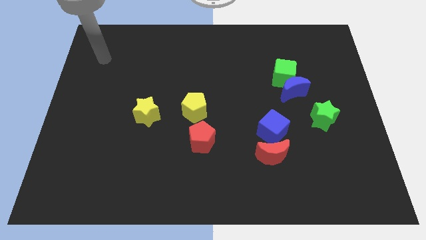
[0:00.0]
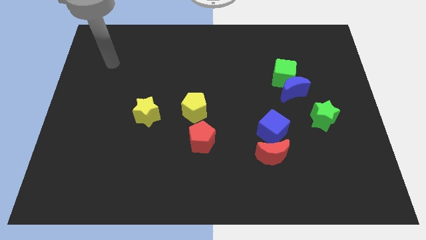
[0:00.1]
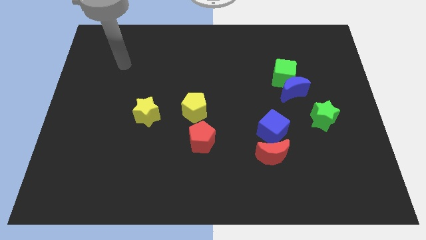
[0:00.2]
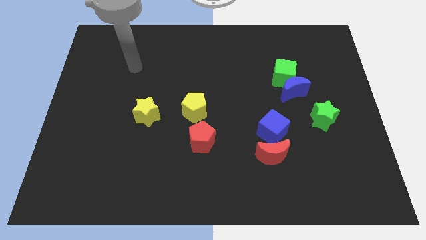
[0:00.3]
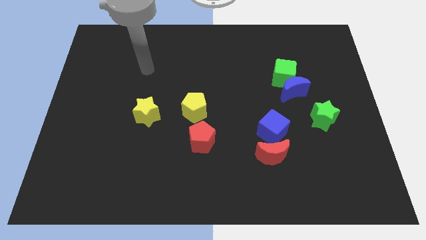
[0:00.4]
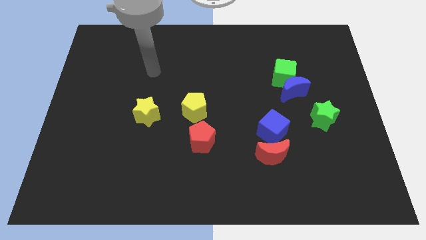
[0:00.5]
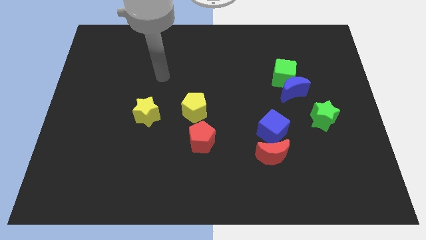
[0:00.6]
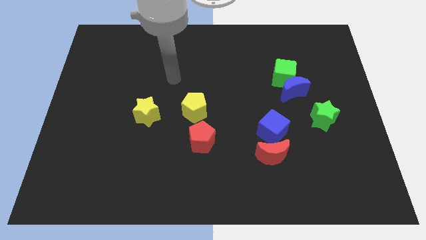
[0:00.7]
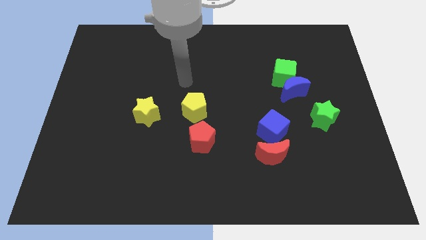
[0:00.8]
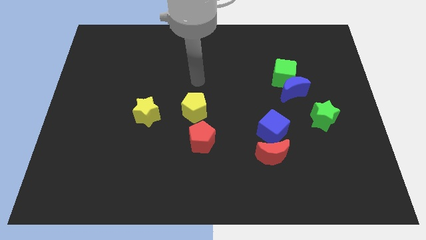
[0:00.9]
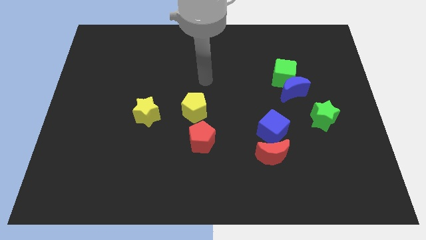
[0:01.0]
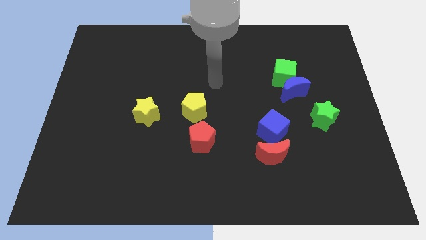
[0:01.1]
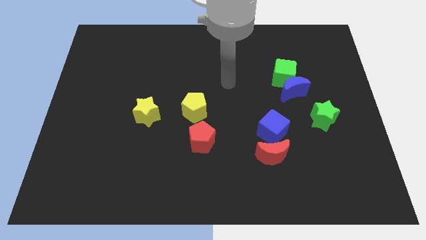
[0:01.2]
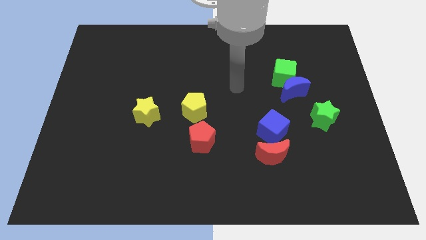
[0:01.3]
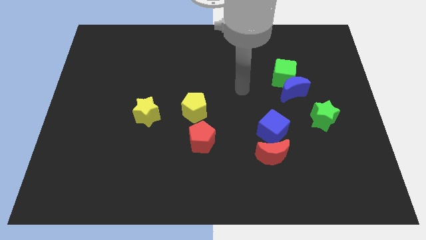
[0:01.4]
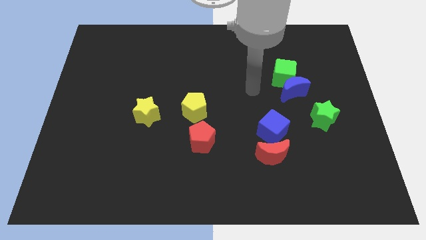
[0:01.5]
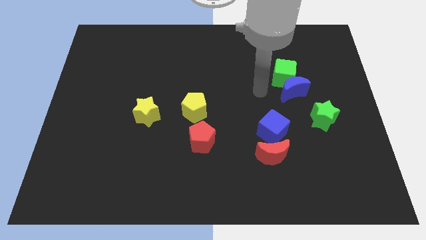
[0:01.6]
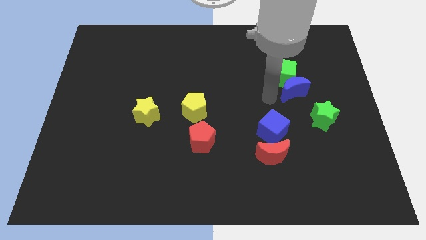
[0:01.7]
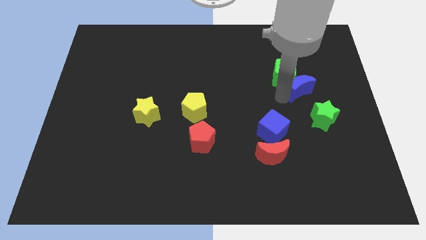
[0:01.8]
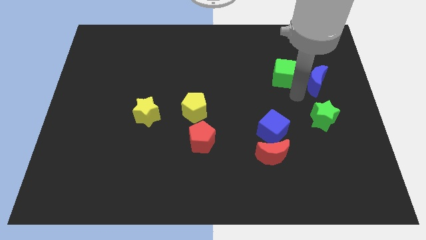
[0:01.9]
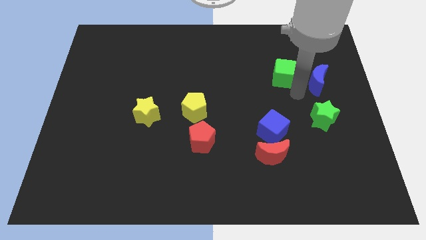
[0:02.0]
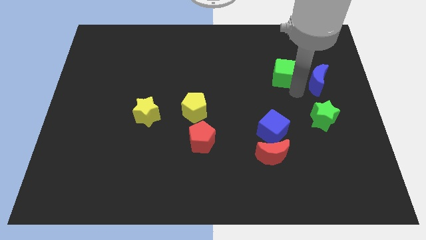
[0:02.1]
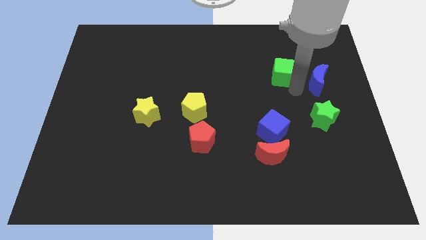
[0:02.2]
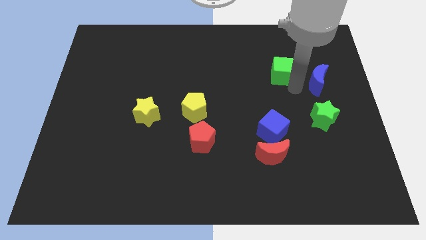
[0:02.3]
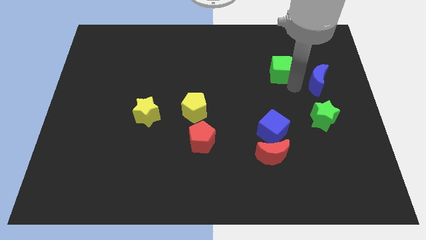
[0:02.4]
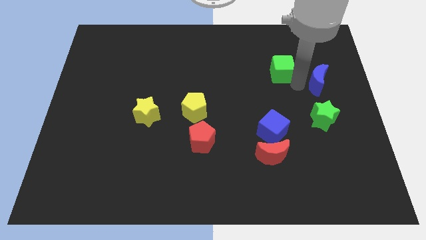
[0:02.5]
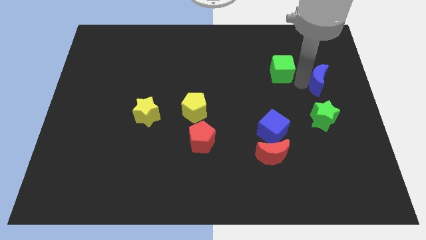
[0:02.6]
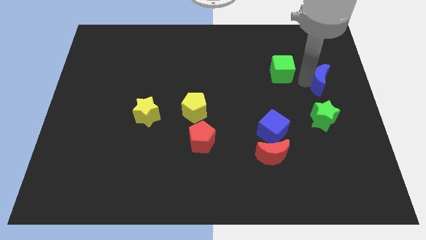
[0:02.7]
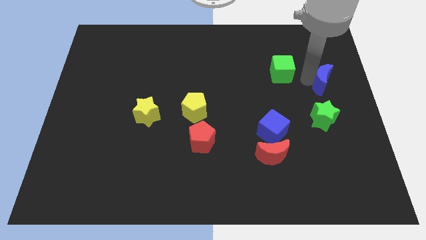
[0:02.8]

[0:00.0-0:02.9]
pull the green cube apart from the blue moon

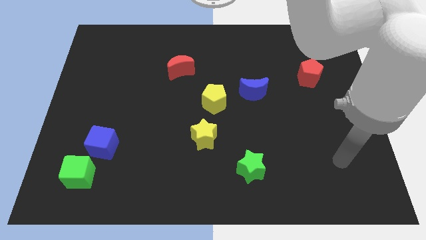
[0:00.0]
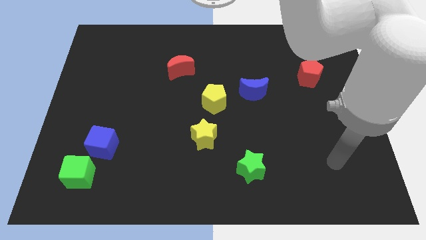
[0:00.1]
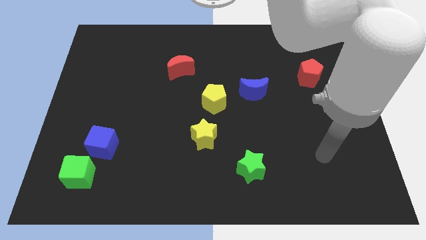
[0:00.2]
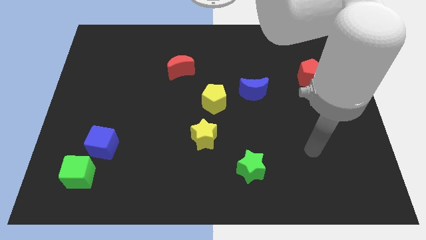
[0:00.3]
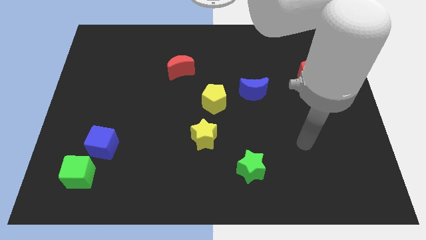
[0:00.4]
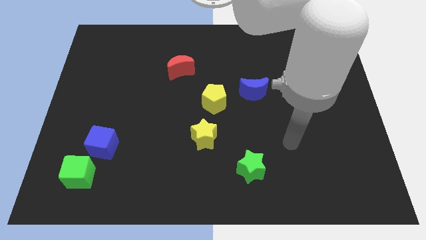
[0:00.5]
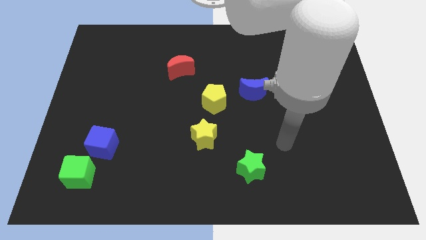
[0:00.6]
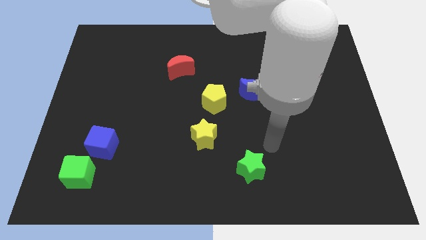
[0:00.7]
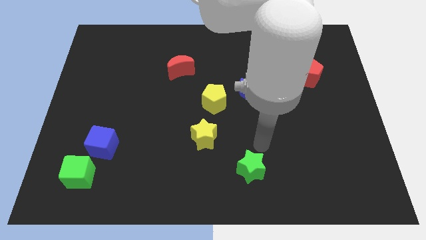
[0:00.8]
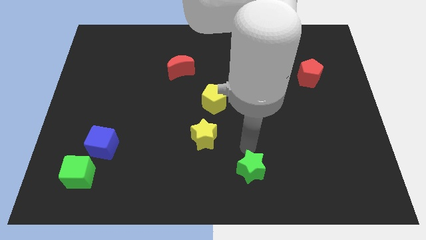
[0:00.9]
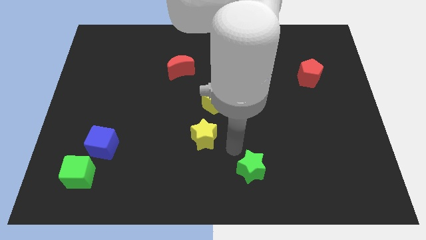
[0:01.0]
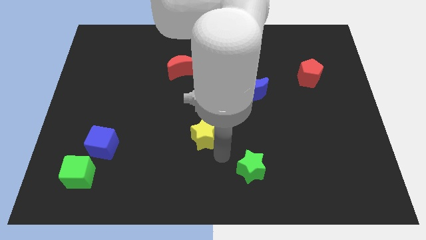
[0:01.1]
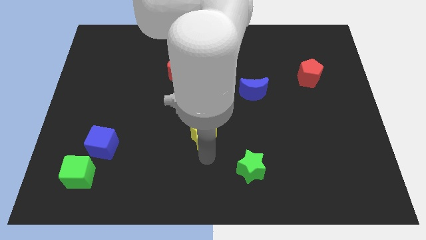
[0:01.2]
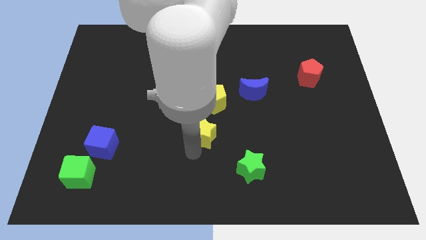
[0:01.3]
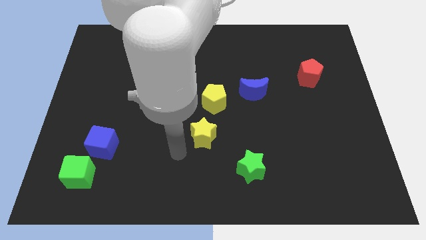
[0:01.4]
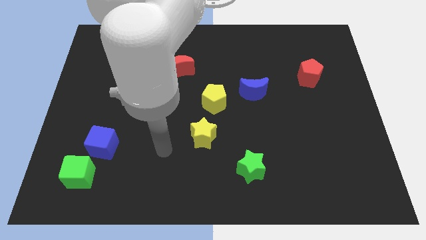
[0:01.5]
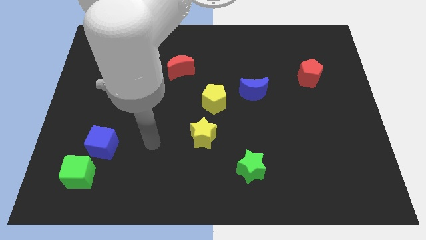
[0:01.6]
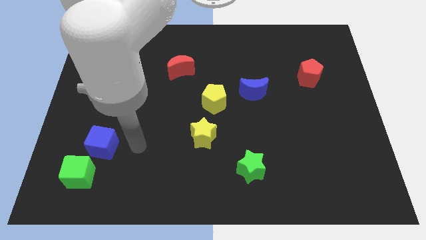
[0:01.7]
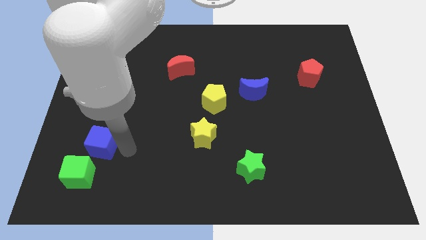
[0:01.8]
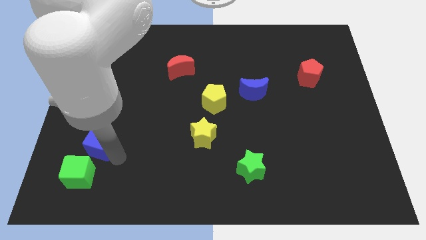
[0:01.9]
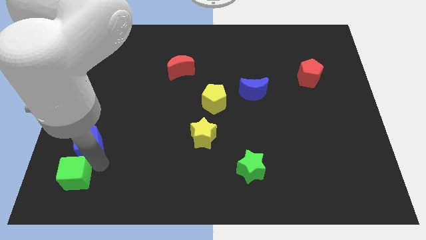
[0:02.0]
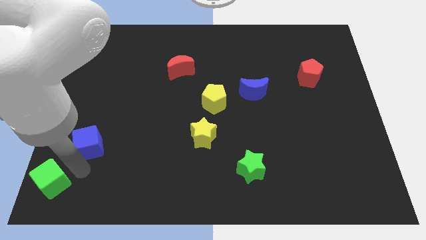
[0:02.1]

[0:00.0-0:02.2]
move the blue cube away from the green cube

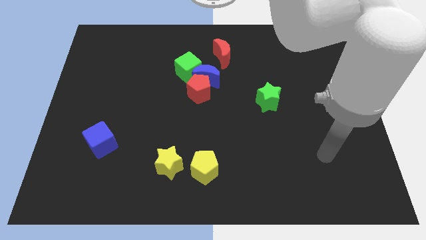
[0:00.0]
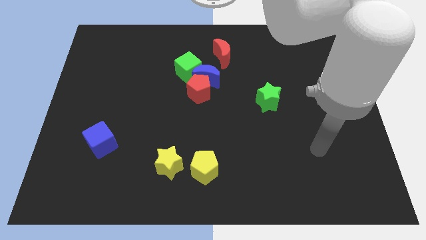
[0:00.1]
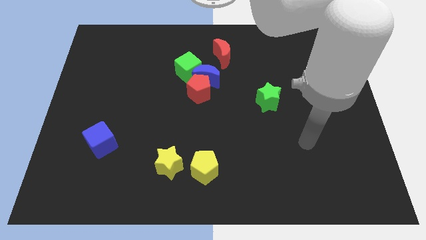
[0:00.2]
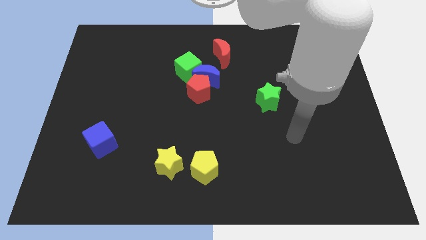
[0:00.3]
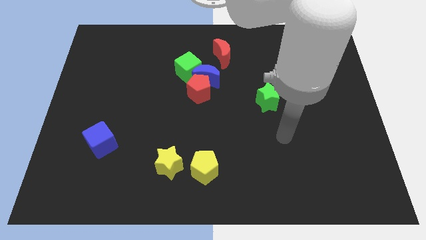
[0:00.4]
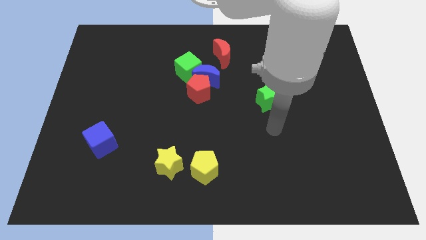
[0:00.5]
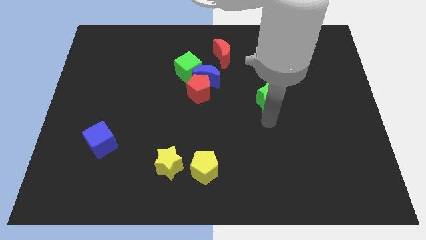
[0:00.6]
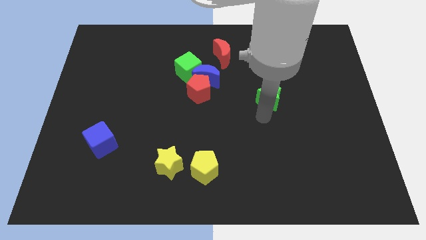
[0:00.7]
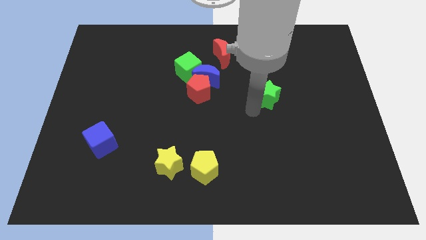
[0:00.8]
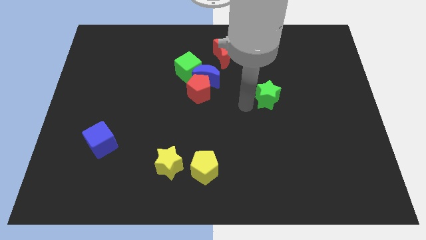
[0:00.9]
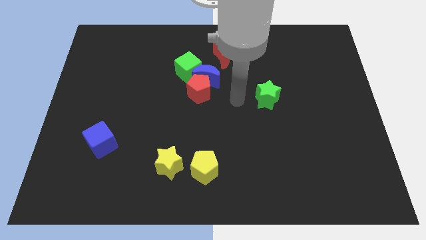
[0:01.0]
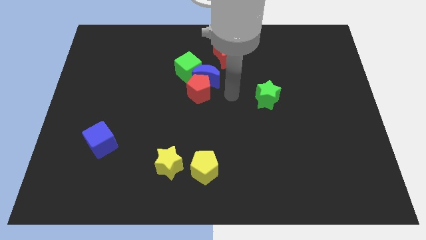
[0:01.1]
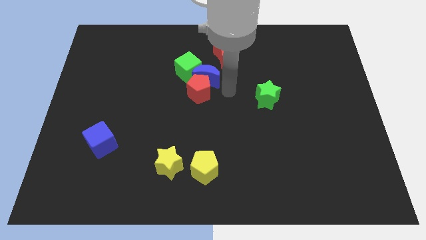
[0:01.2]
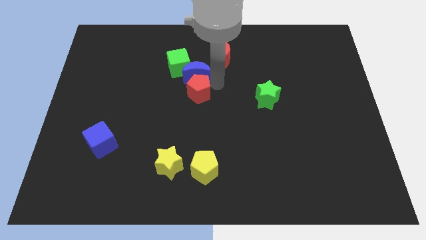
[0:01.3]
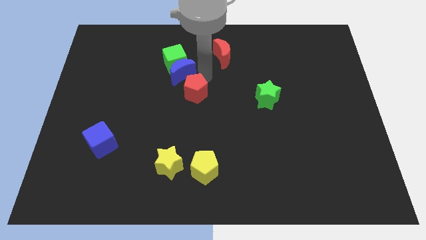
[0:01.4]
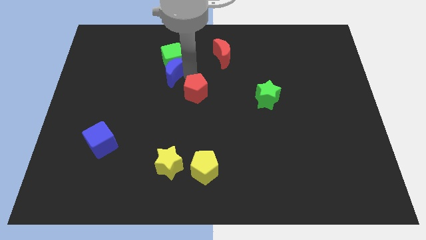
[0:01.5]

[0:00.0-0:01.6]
pull the red pentagon apart from the blue moon and green cube

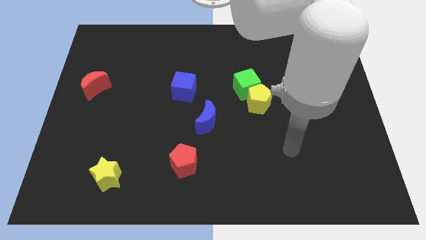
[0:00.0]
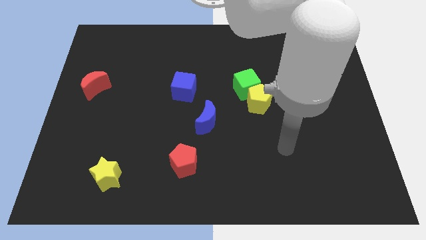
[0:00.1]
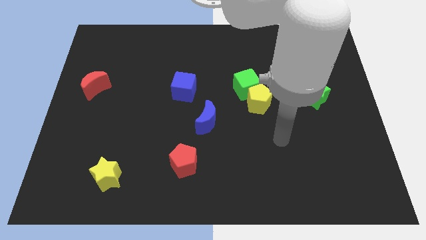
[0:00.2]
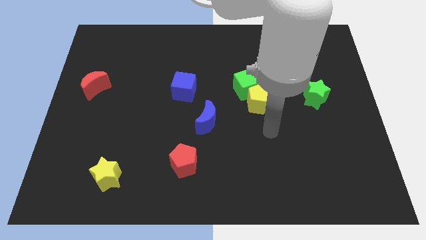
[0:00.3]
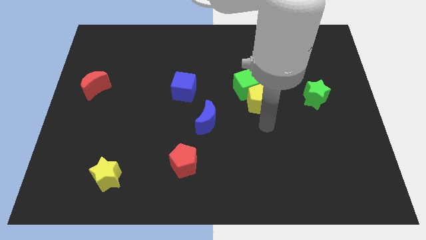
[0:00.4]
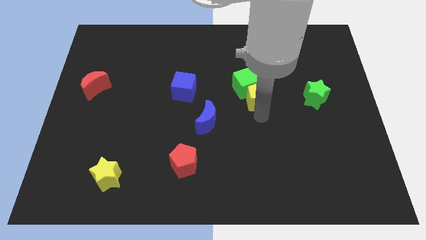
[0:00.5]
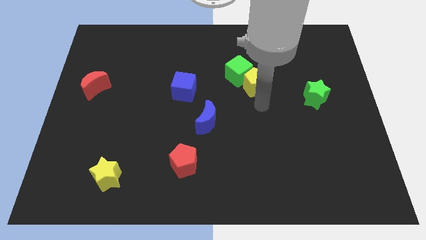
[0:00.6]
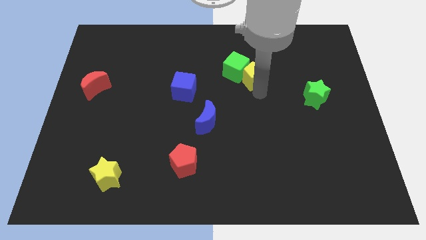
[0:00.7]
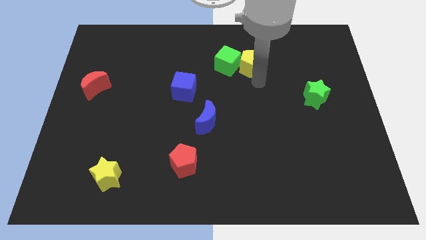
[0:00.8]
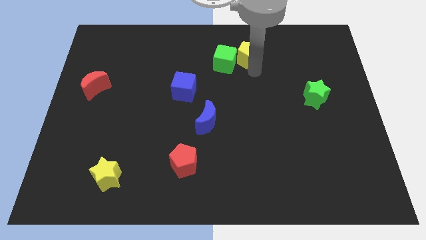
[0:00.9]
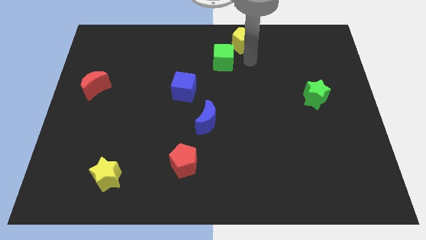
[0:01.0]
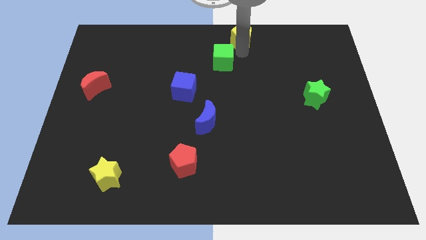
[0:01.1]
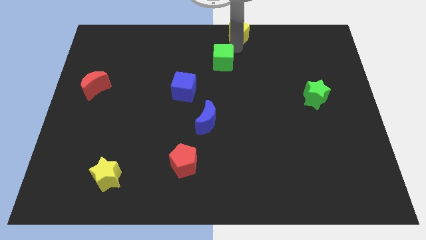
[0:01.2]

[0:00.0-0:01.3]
separate the green cube from the yellow pentagon

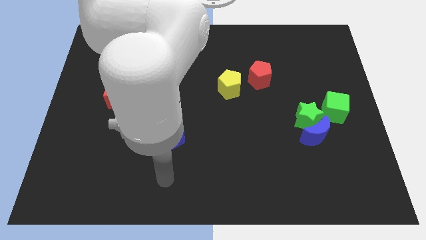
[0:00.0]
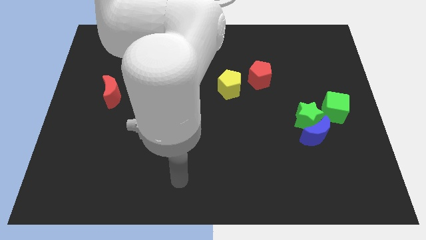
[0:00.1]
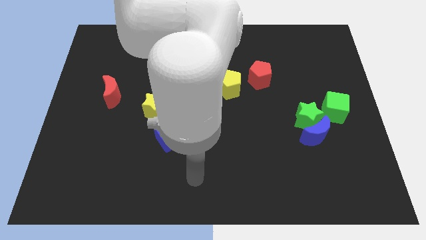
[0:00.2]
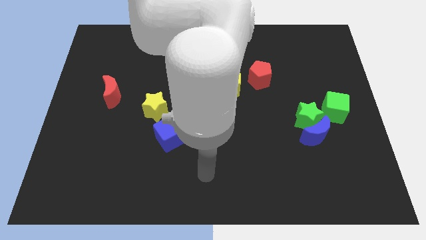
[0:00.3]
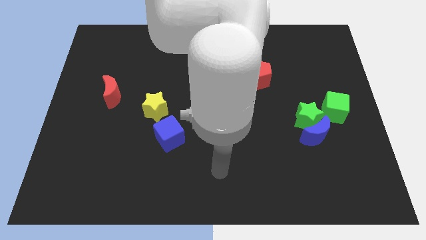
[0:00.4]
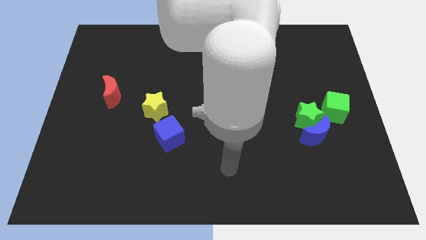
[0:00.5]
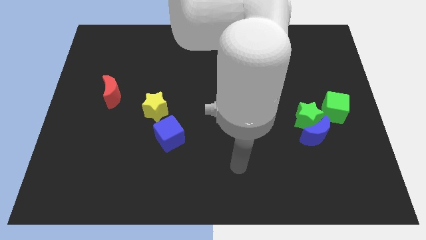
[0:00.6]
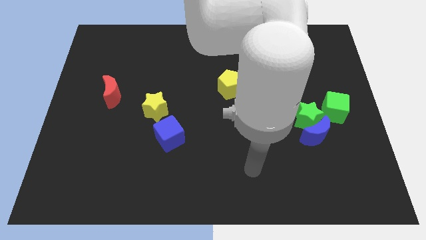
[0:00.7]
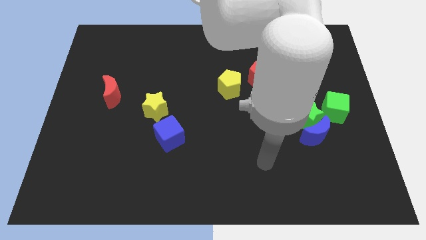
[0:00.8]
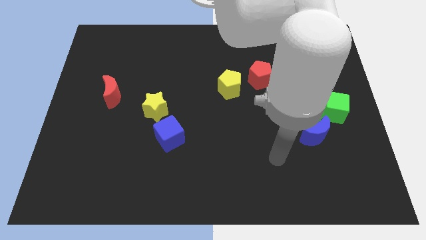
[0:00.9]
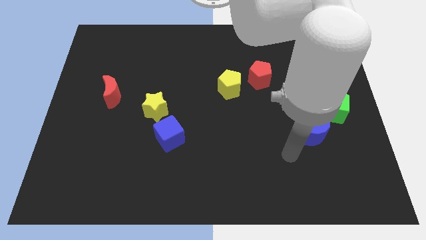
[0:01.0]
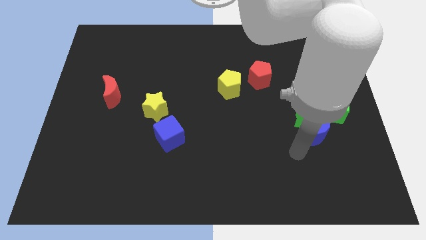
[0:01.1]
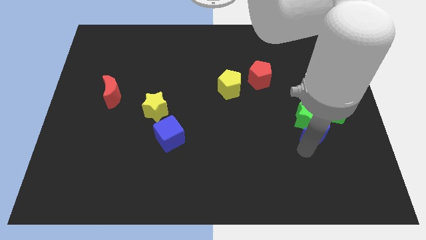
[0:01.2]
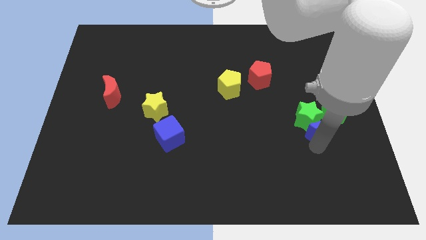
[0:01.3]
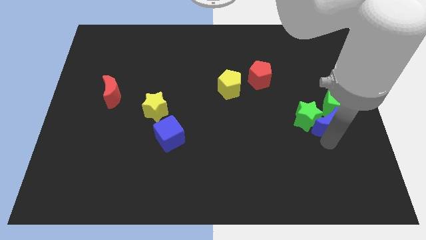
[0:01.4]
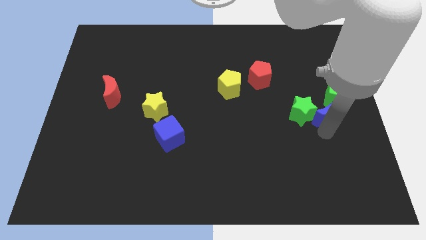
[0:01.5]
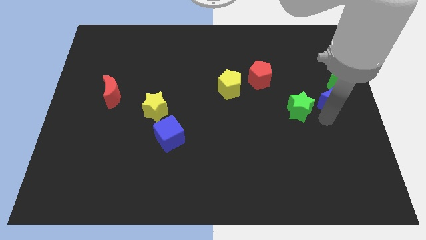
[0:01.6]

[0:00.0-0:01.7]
move the green star away from the blue moon and green cube
